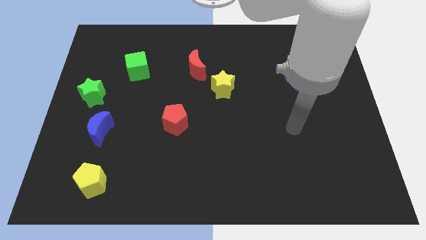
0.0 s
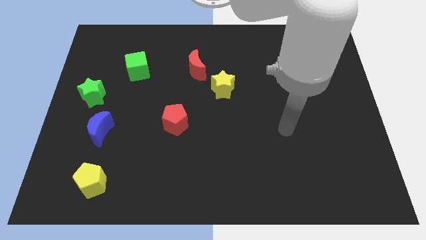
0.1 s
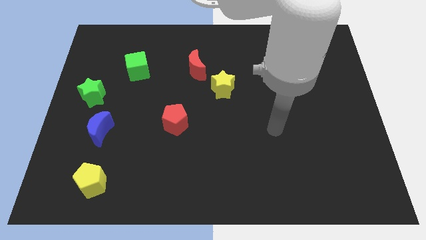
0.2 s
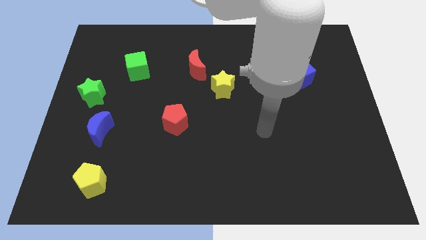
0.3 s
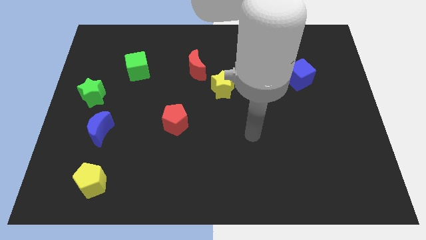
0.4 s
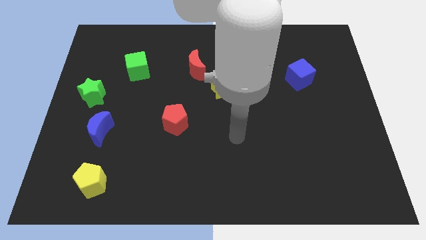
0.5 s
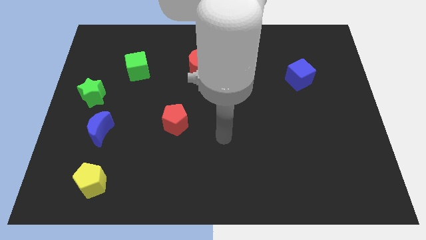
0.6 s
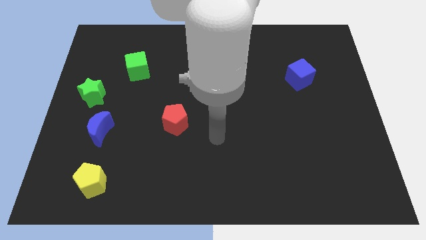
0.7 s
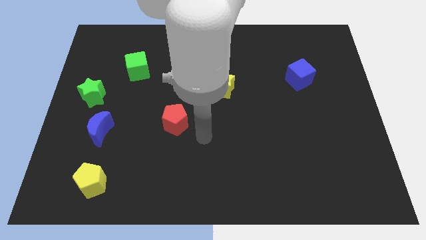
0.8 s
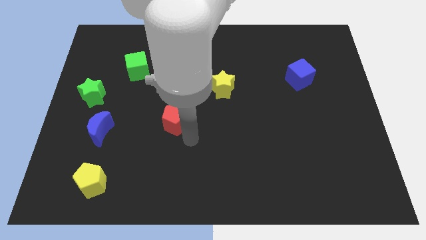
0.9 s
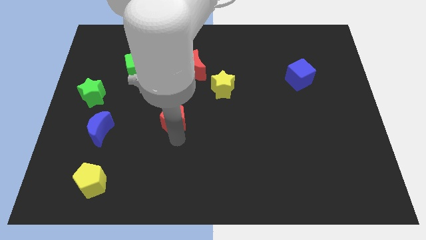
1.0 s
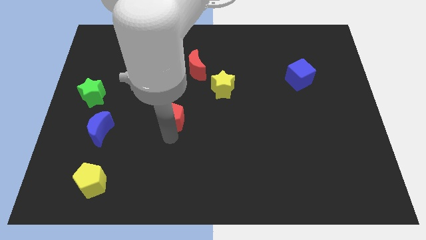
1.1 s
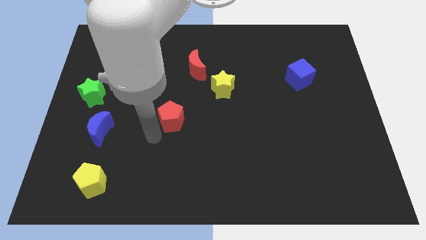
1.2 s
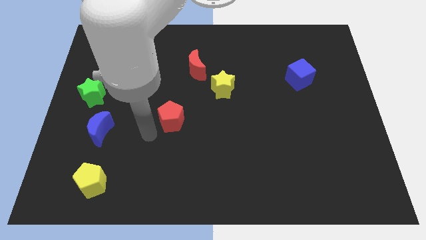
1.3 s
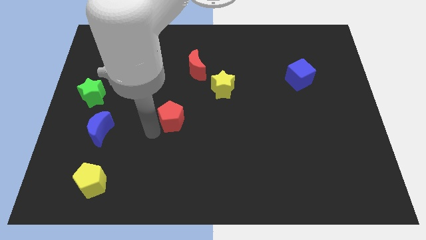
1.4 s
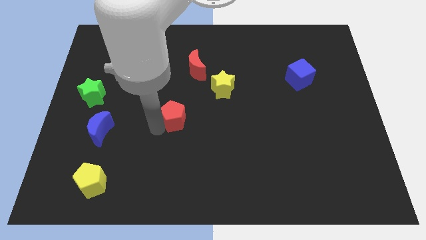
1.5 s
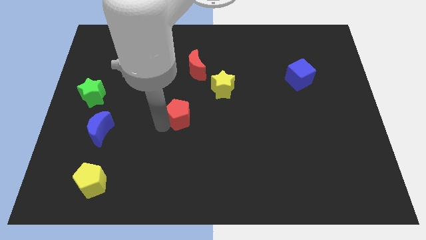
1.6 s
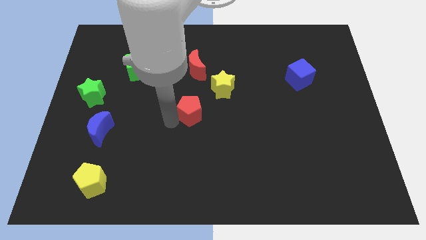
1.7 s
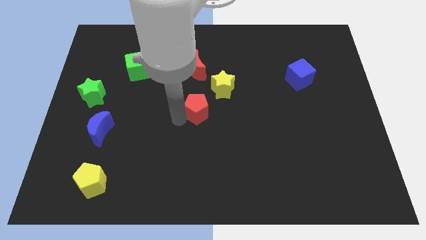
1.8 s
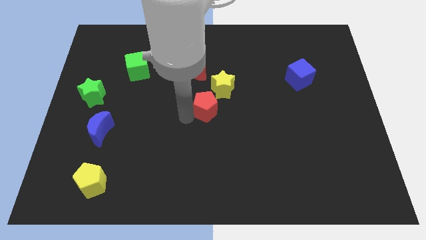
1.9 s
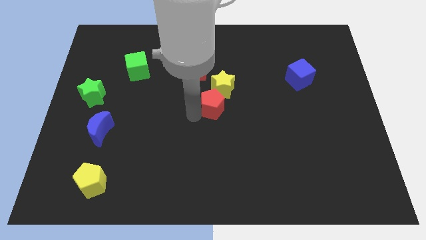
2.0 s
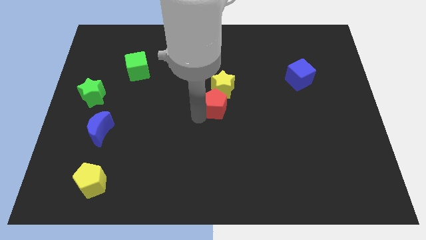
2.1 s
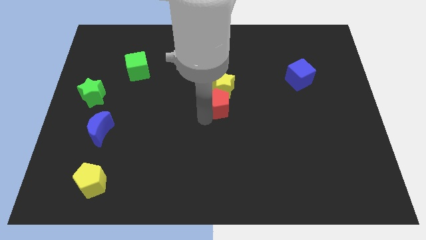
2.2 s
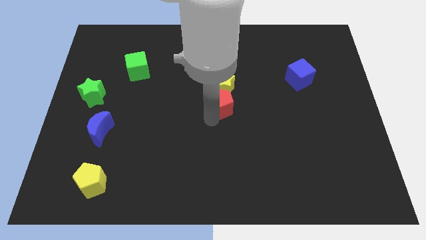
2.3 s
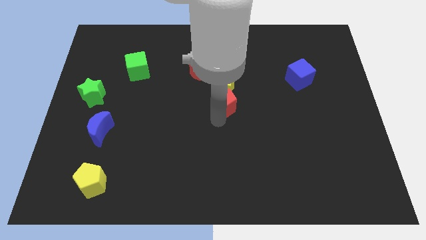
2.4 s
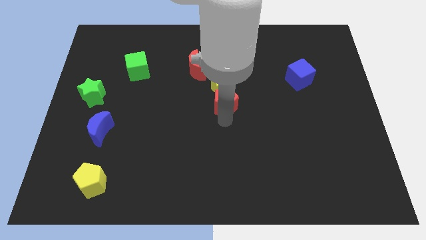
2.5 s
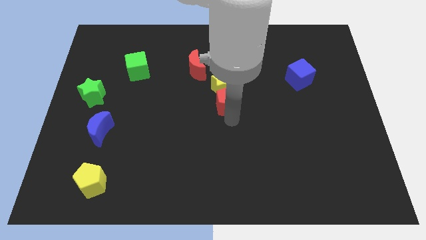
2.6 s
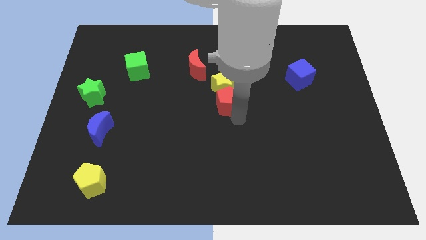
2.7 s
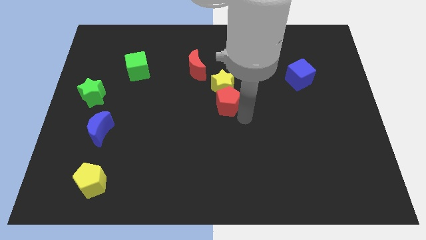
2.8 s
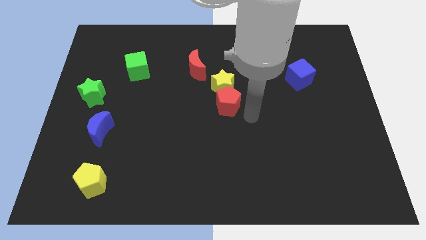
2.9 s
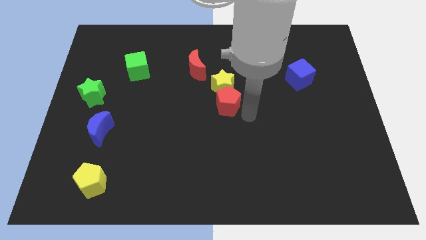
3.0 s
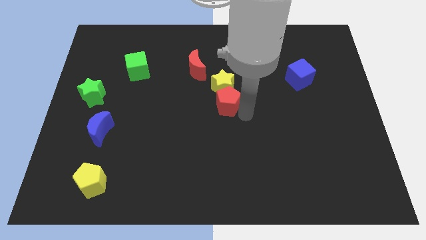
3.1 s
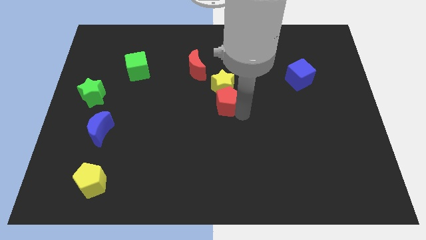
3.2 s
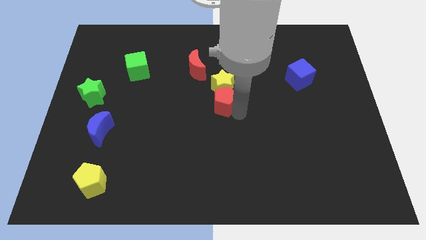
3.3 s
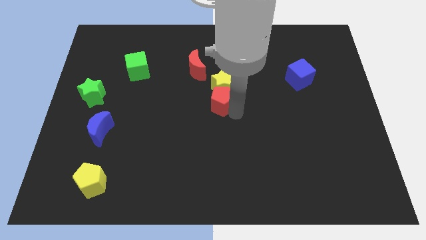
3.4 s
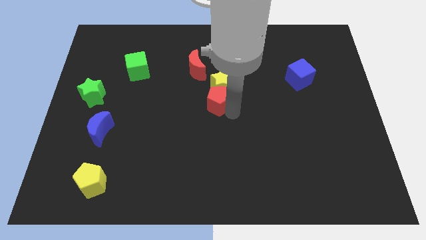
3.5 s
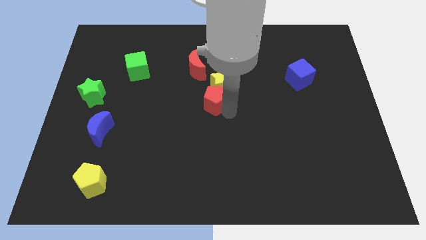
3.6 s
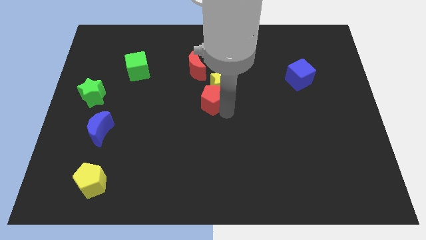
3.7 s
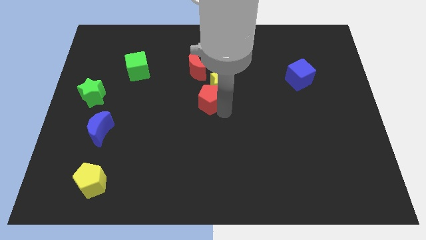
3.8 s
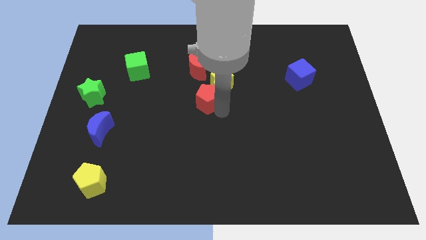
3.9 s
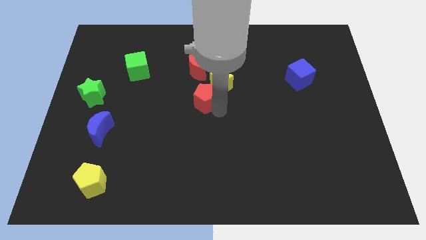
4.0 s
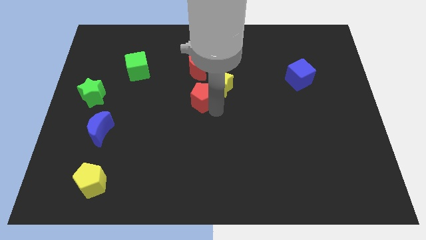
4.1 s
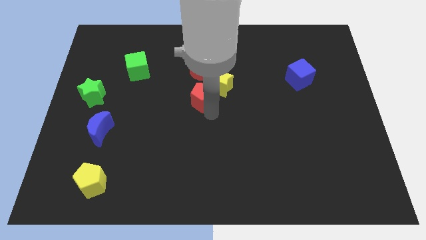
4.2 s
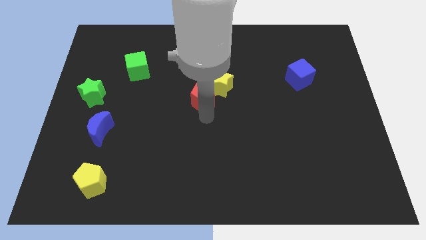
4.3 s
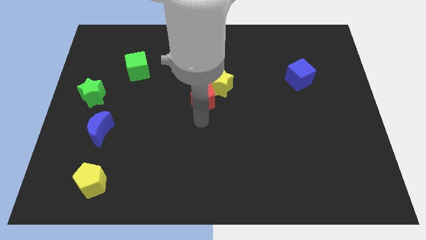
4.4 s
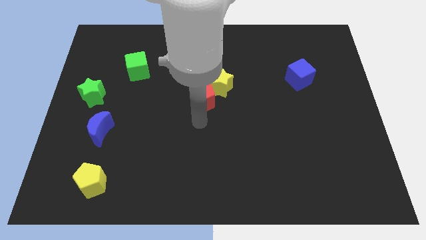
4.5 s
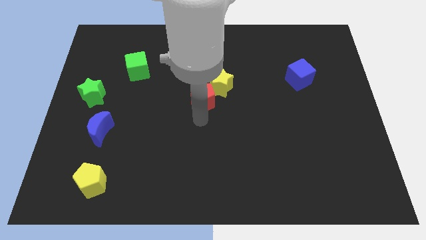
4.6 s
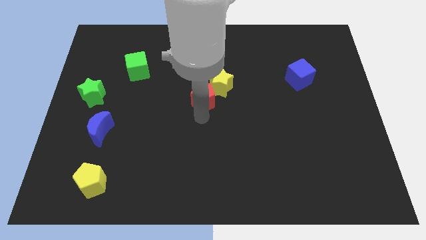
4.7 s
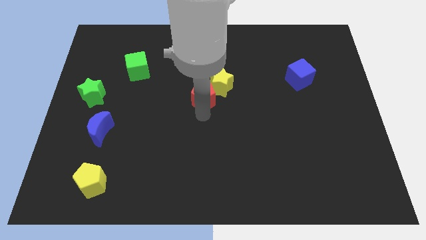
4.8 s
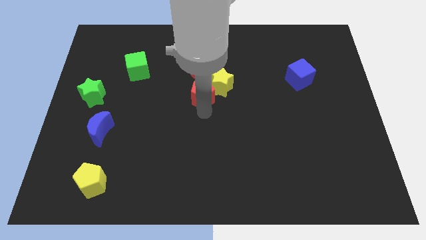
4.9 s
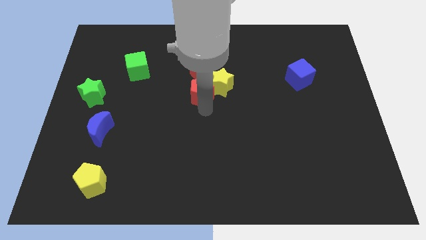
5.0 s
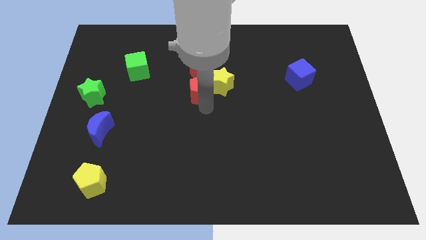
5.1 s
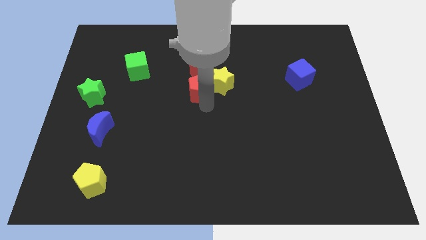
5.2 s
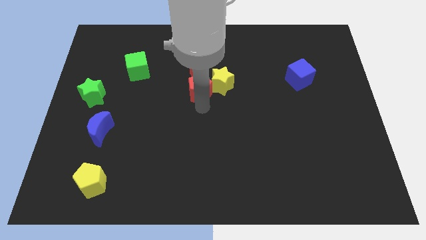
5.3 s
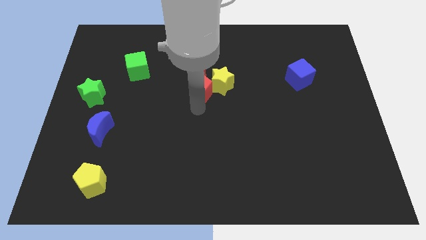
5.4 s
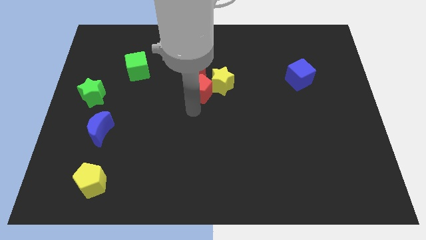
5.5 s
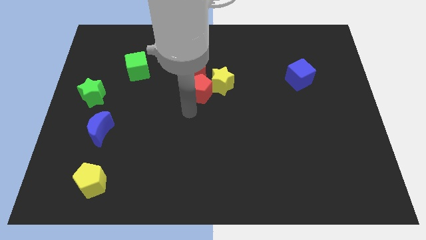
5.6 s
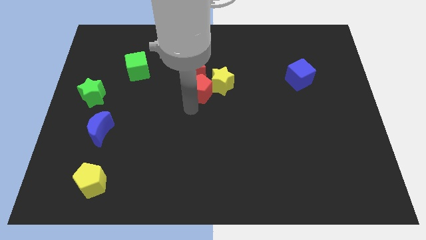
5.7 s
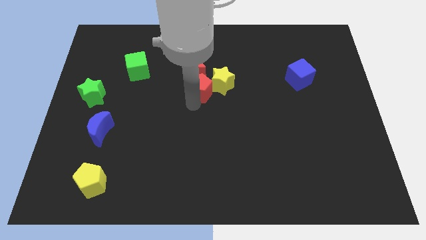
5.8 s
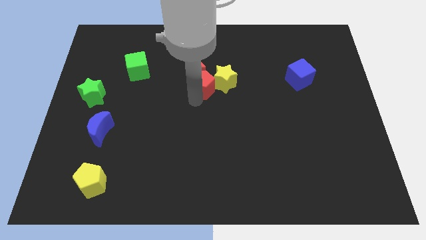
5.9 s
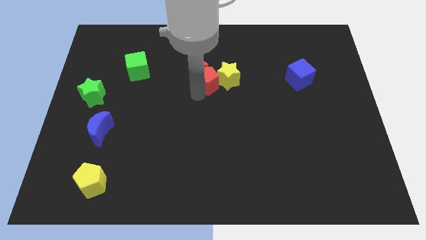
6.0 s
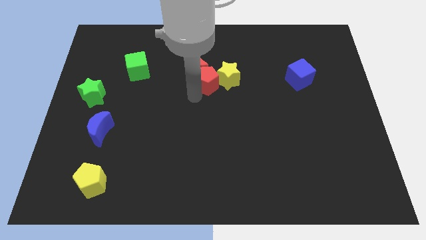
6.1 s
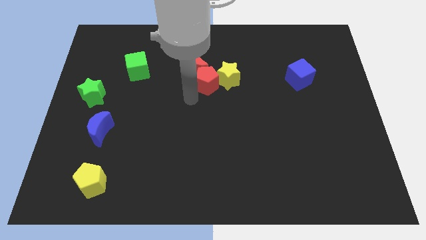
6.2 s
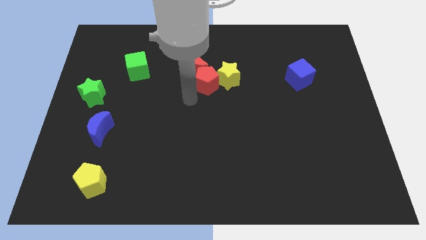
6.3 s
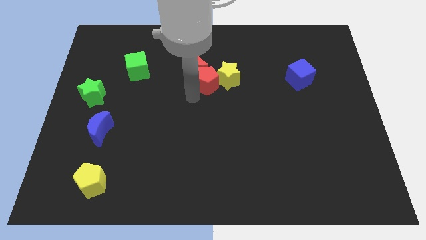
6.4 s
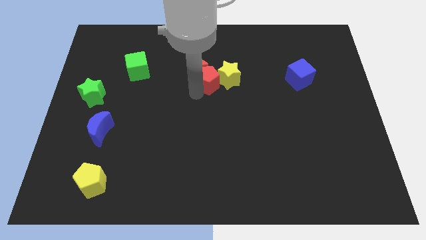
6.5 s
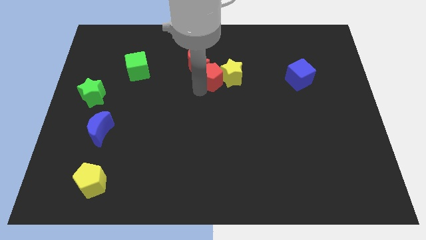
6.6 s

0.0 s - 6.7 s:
move the red pentagon right of the red moon

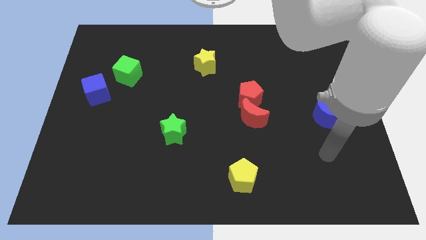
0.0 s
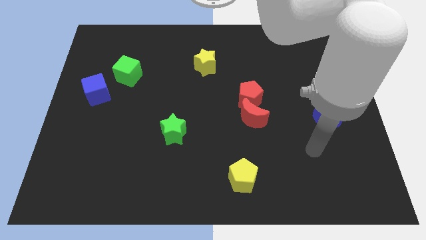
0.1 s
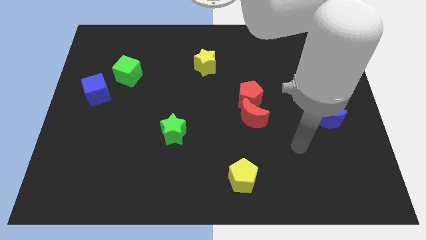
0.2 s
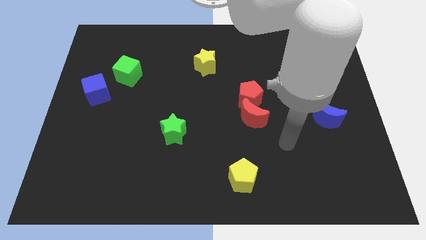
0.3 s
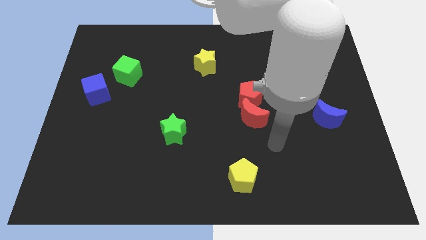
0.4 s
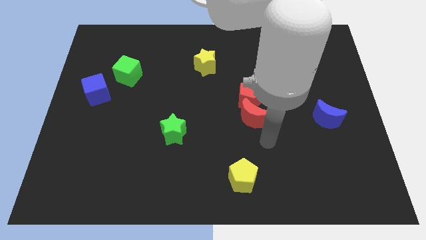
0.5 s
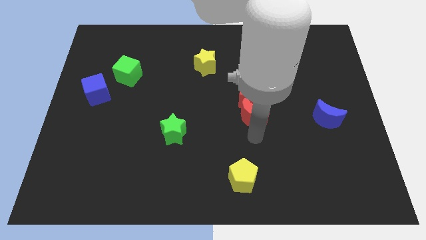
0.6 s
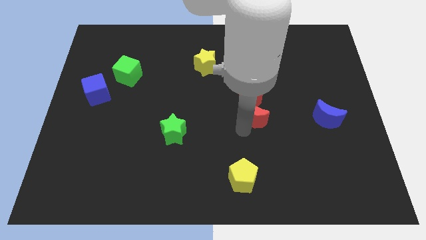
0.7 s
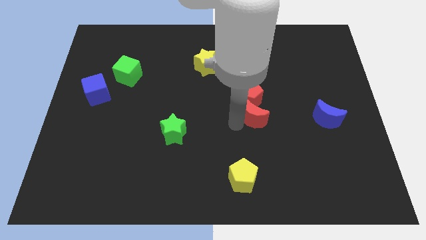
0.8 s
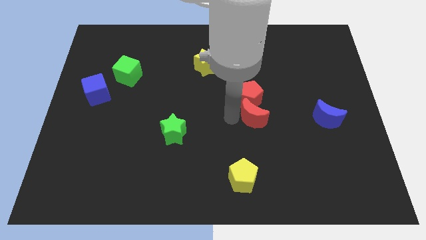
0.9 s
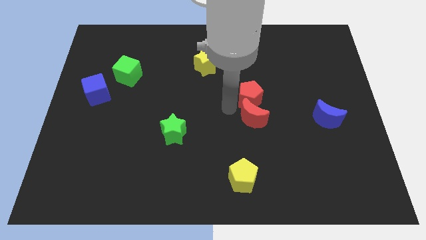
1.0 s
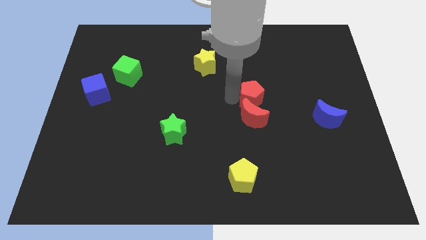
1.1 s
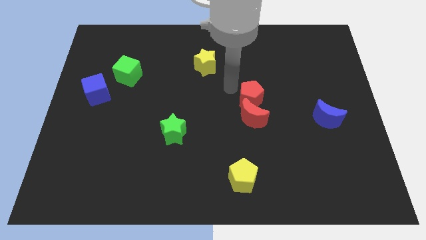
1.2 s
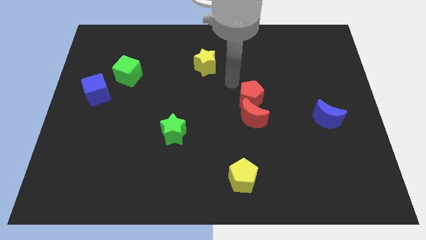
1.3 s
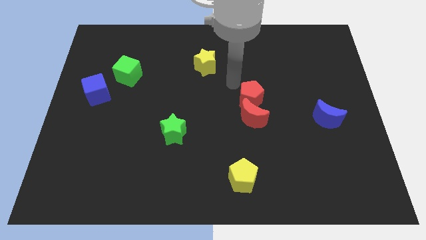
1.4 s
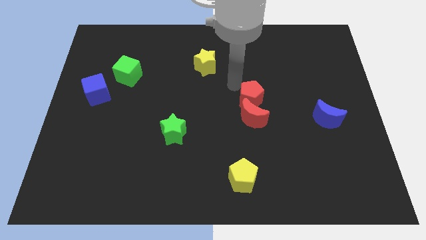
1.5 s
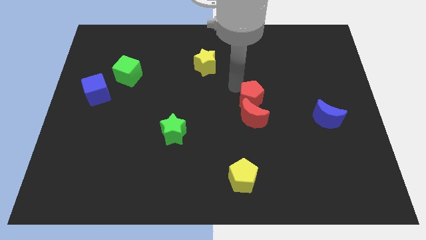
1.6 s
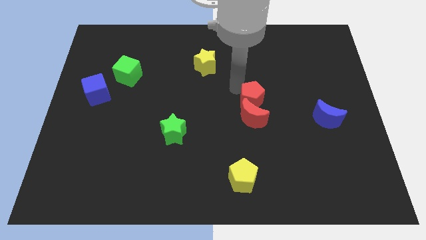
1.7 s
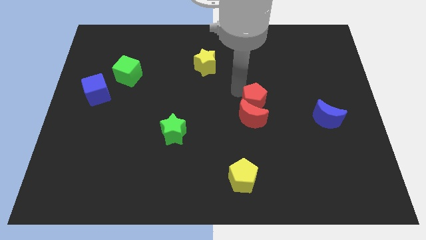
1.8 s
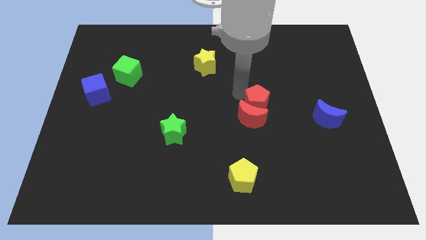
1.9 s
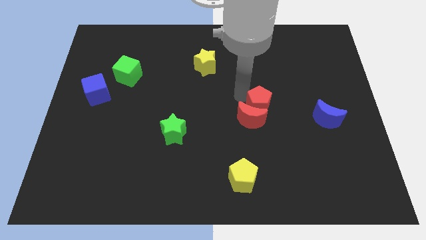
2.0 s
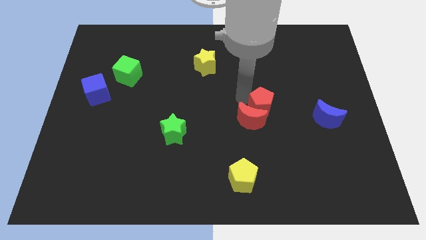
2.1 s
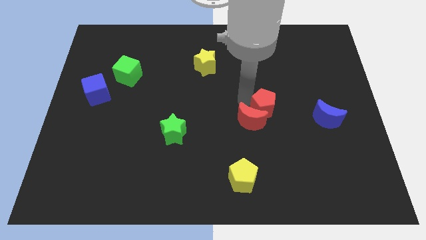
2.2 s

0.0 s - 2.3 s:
push the red pentagon to the left side of the blue moon
